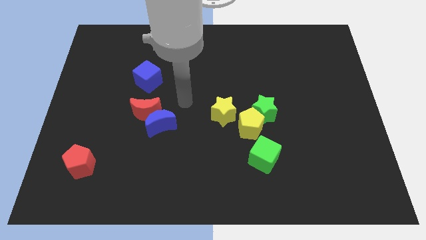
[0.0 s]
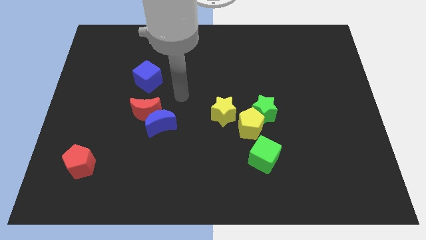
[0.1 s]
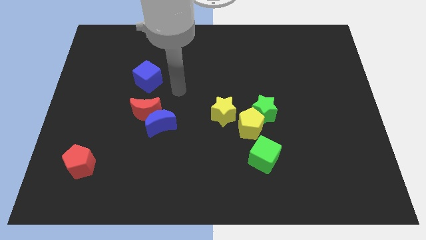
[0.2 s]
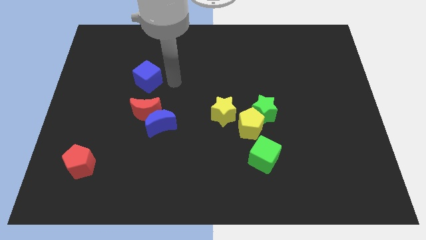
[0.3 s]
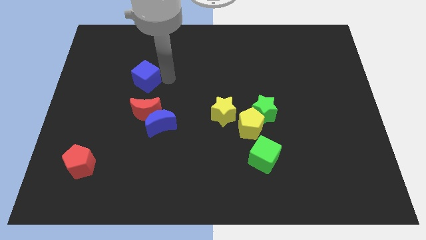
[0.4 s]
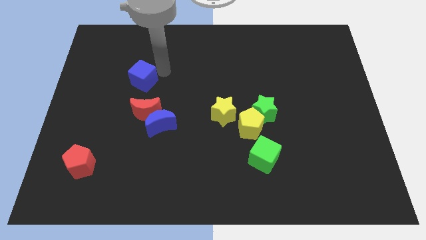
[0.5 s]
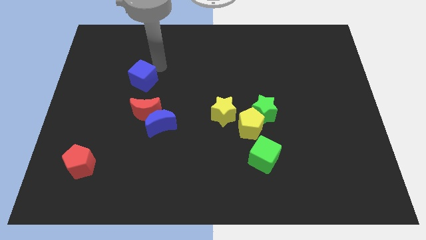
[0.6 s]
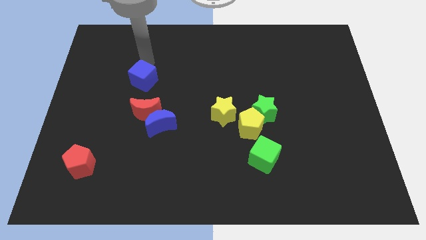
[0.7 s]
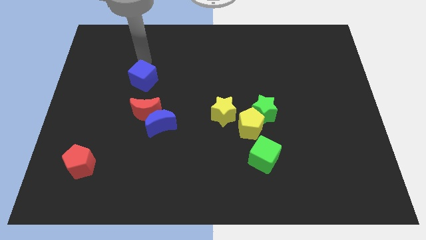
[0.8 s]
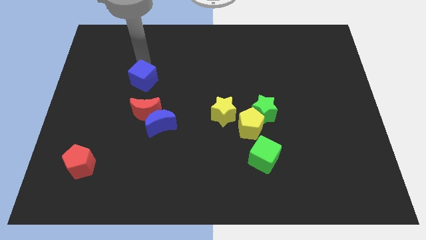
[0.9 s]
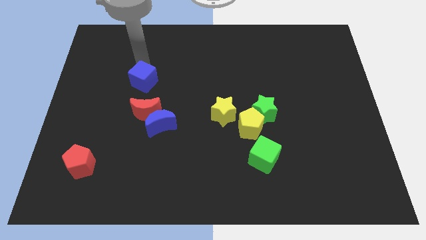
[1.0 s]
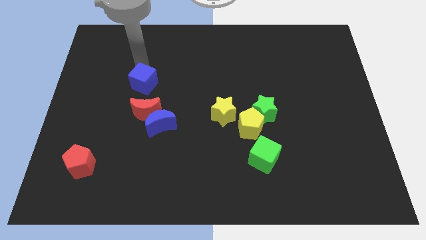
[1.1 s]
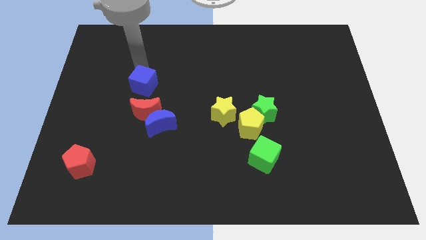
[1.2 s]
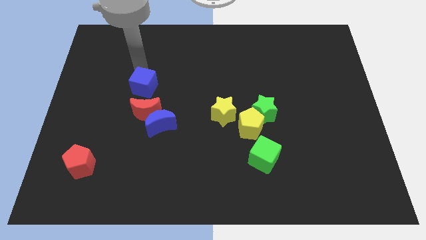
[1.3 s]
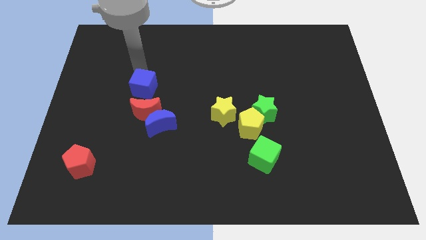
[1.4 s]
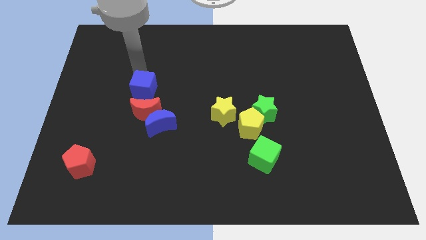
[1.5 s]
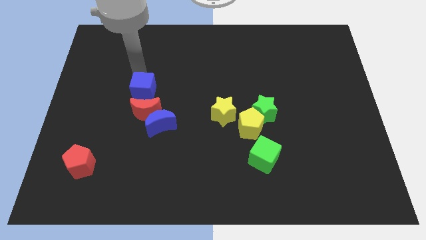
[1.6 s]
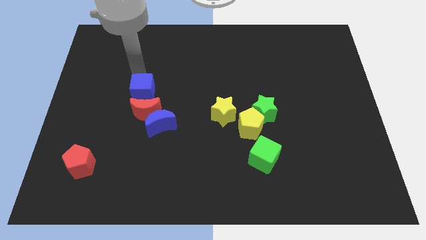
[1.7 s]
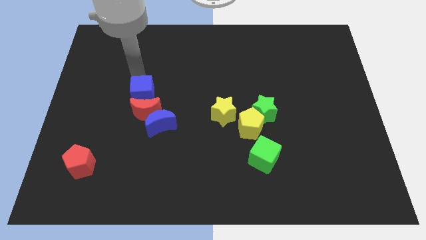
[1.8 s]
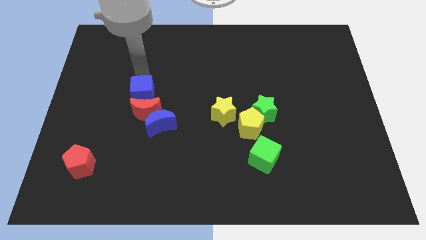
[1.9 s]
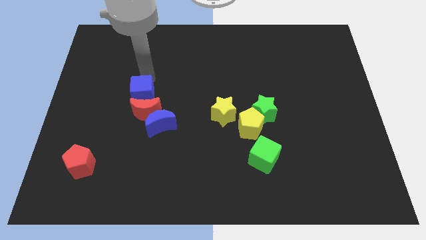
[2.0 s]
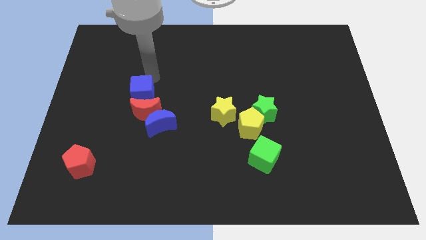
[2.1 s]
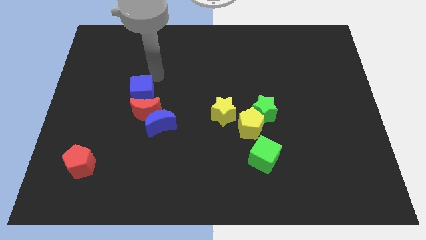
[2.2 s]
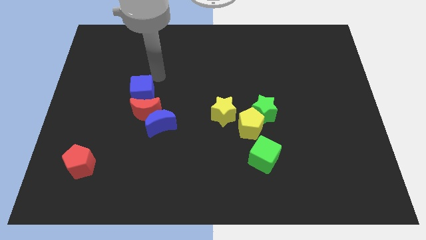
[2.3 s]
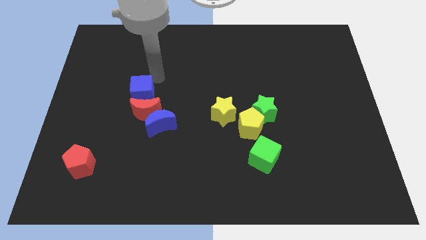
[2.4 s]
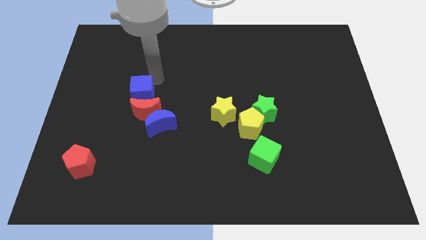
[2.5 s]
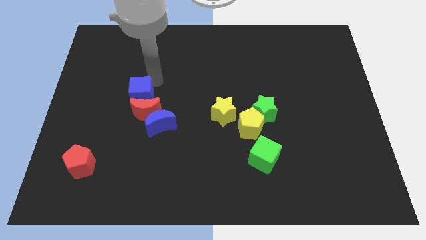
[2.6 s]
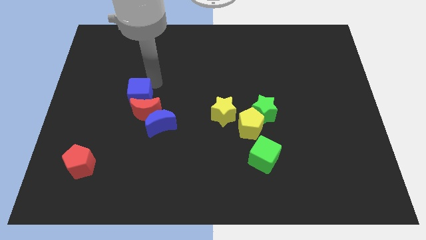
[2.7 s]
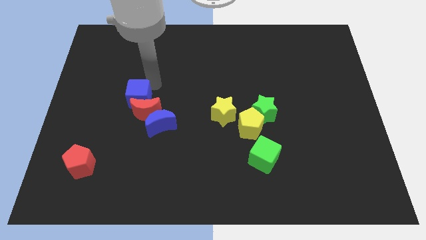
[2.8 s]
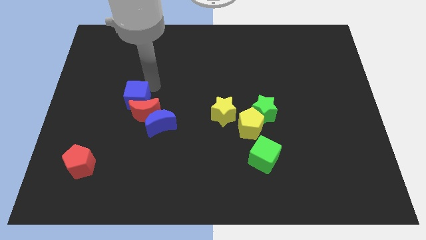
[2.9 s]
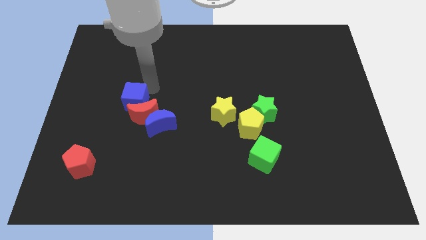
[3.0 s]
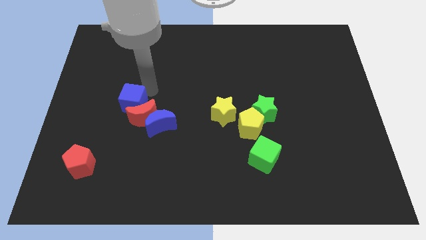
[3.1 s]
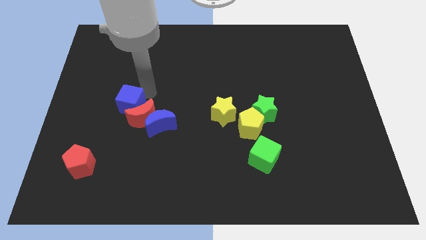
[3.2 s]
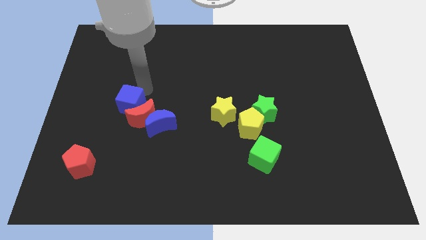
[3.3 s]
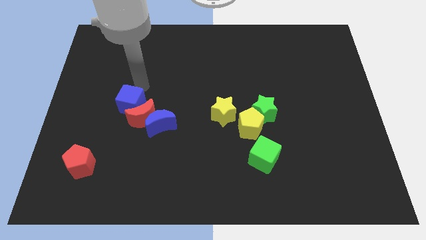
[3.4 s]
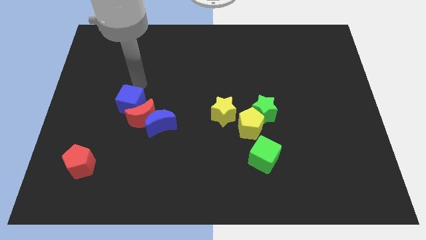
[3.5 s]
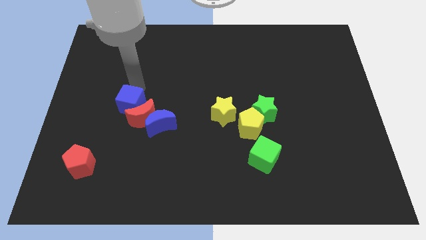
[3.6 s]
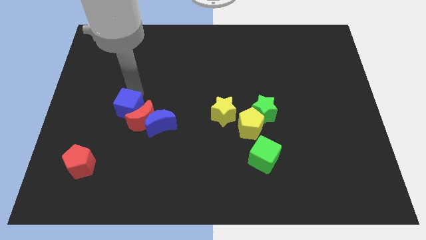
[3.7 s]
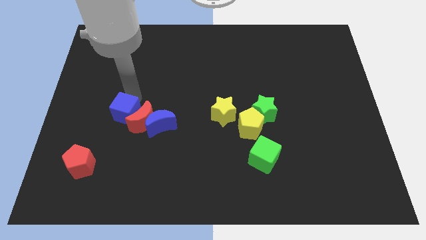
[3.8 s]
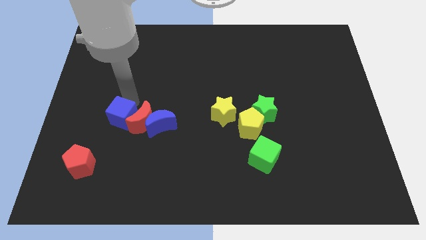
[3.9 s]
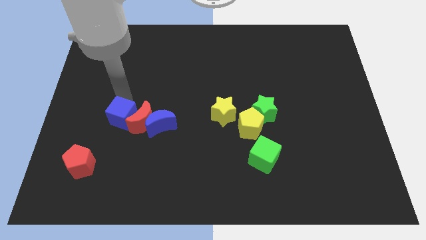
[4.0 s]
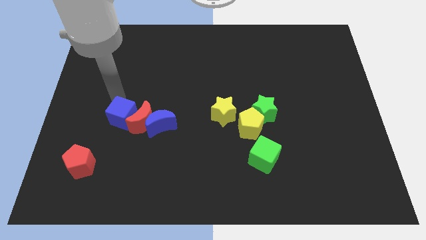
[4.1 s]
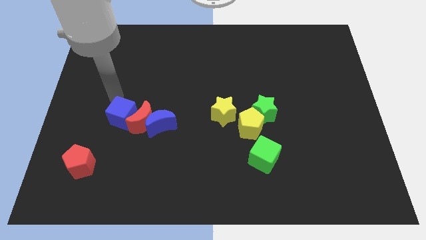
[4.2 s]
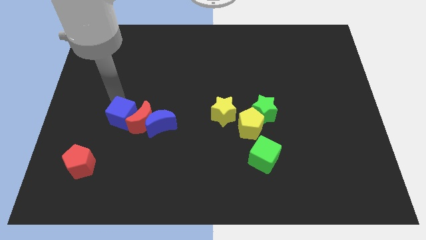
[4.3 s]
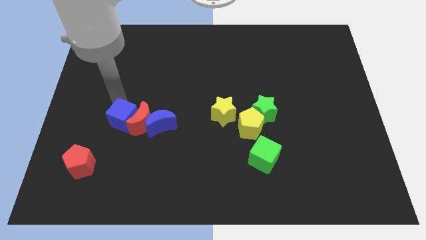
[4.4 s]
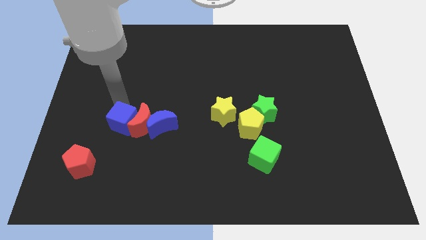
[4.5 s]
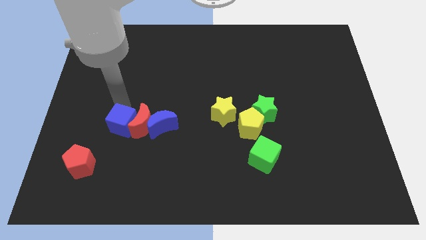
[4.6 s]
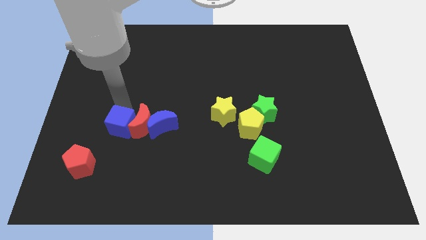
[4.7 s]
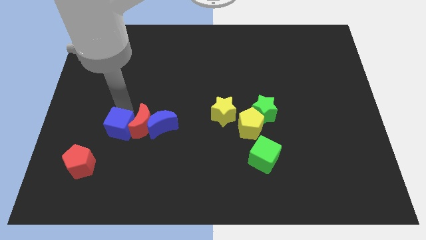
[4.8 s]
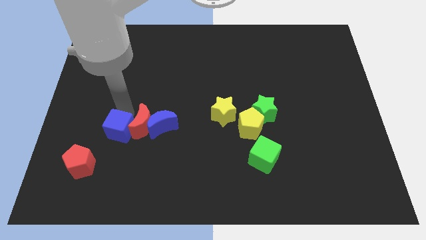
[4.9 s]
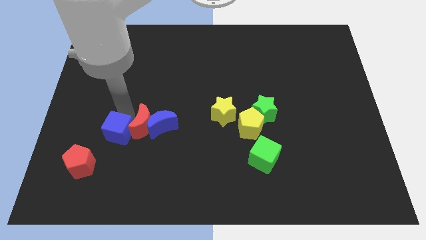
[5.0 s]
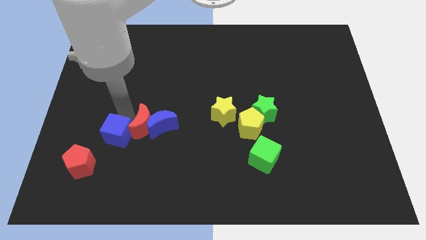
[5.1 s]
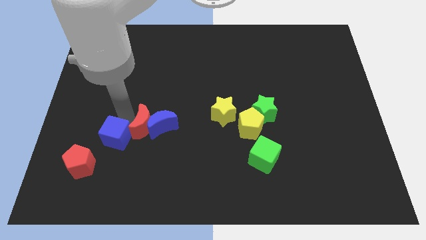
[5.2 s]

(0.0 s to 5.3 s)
put the blue cube to the bottom left of the blue moon
